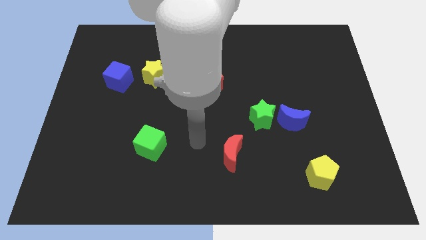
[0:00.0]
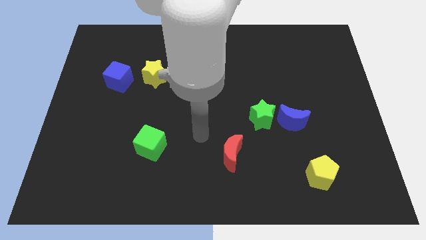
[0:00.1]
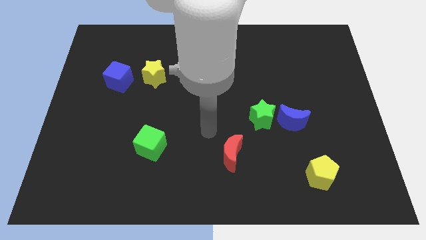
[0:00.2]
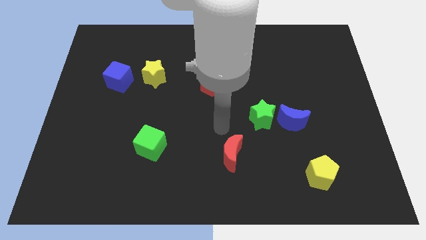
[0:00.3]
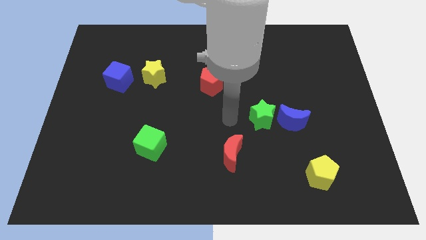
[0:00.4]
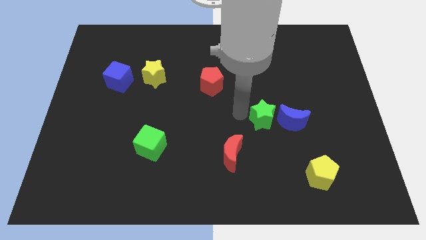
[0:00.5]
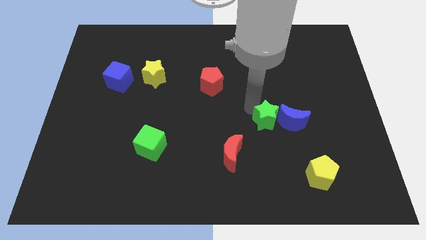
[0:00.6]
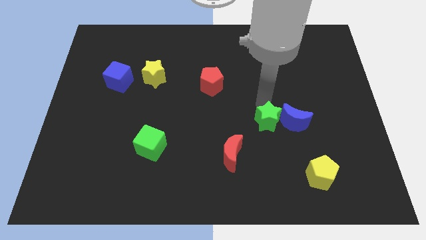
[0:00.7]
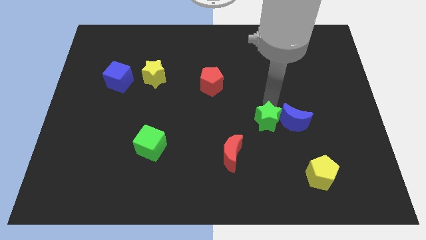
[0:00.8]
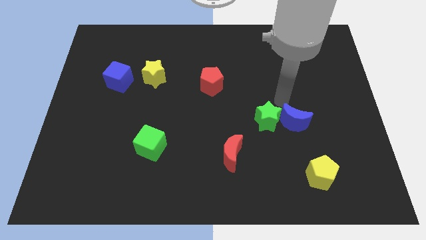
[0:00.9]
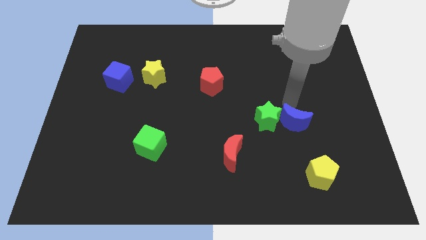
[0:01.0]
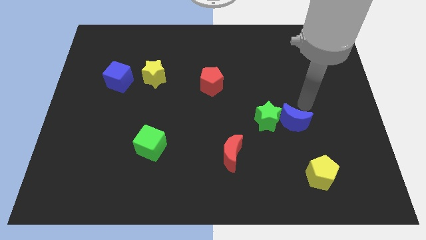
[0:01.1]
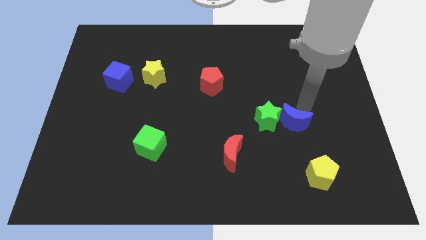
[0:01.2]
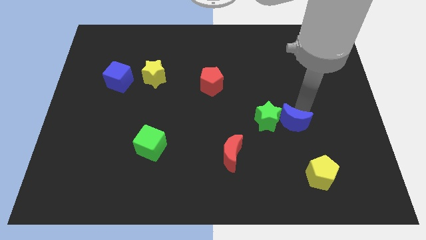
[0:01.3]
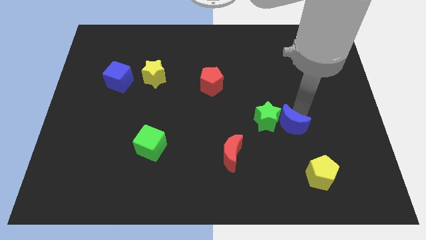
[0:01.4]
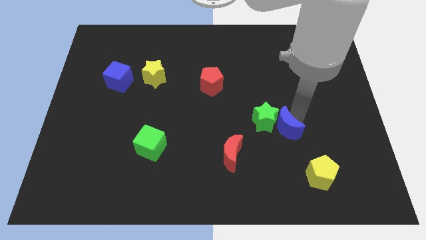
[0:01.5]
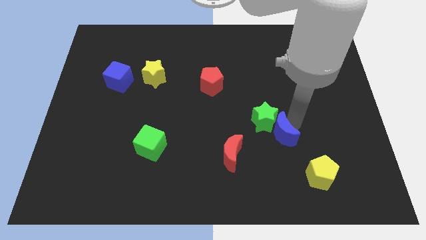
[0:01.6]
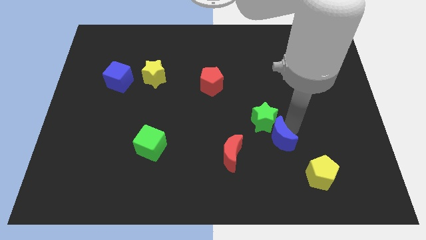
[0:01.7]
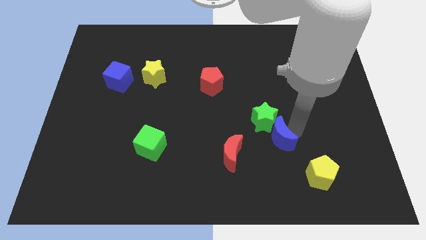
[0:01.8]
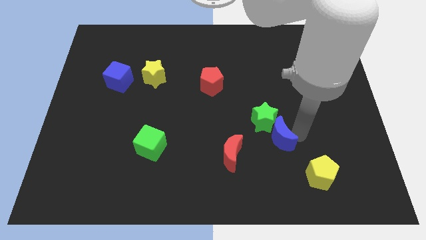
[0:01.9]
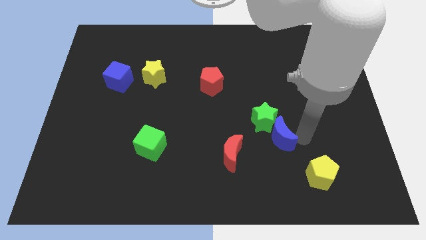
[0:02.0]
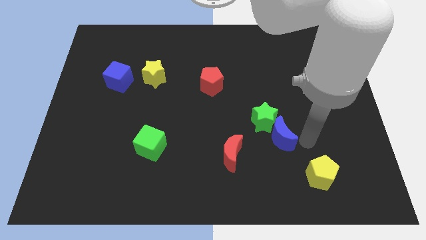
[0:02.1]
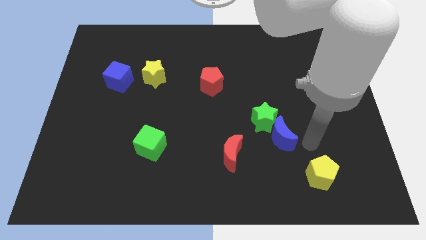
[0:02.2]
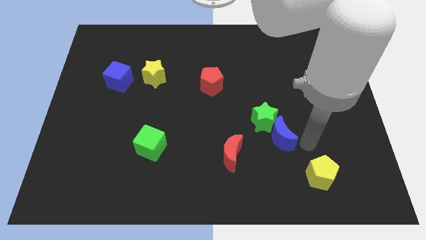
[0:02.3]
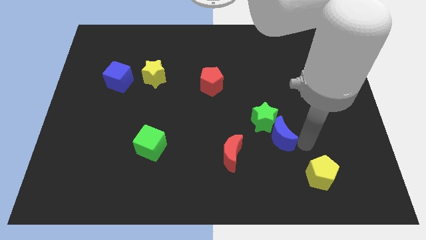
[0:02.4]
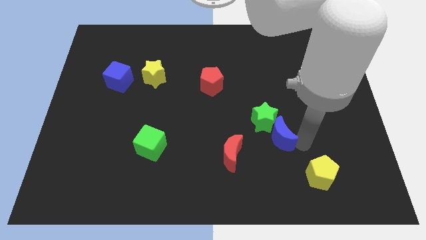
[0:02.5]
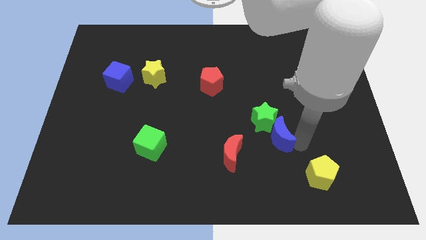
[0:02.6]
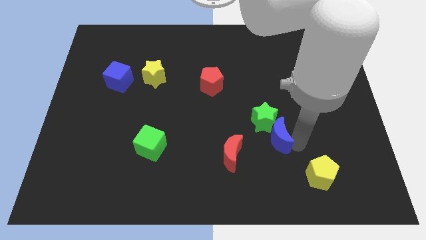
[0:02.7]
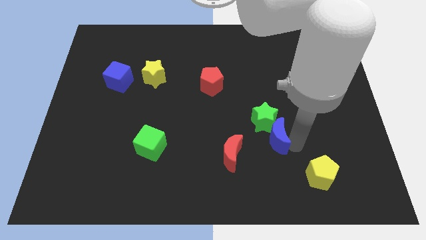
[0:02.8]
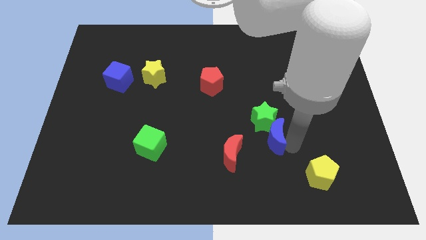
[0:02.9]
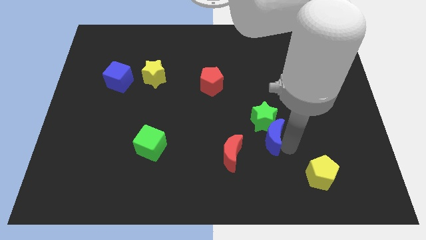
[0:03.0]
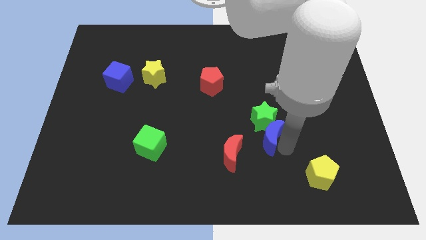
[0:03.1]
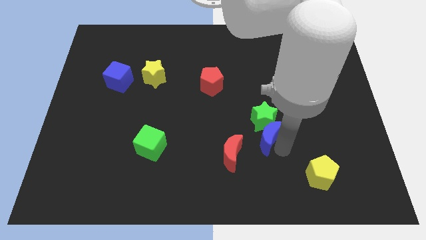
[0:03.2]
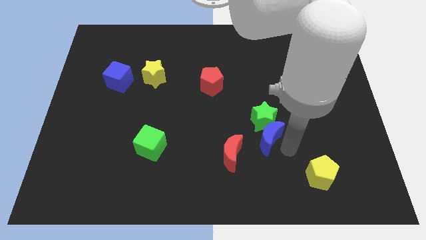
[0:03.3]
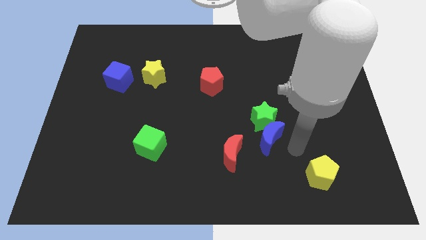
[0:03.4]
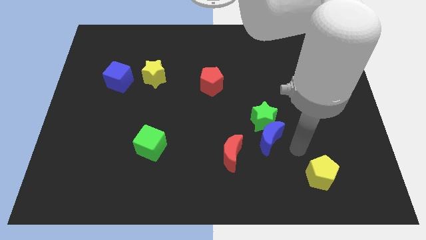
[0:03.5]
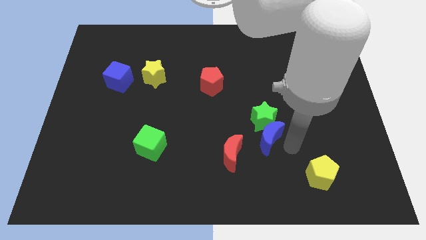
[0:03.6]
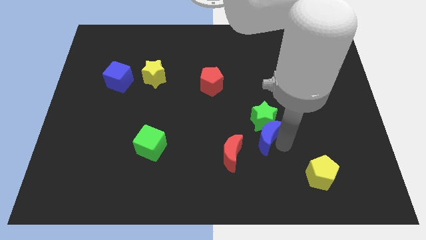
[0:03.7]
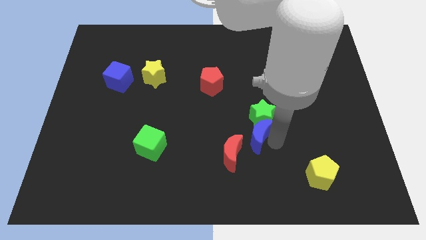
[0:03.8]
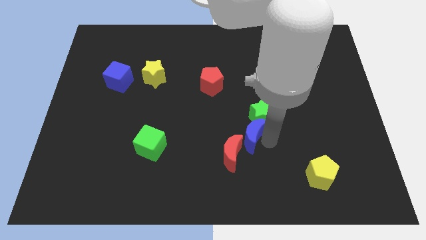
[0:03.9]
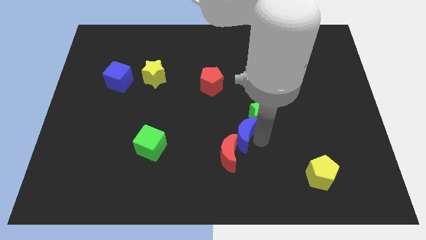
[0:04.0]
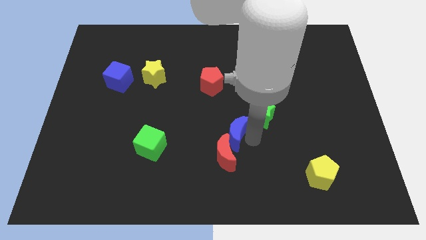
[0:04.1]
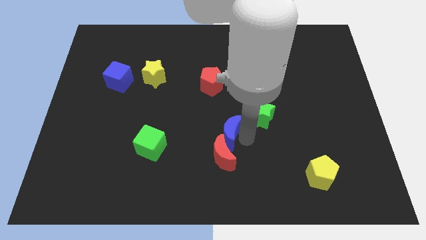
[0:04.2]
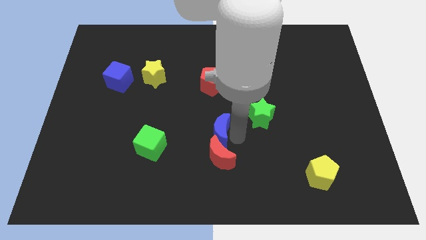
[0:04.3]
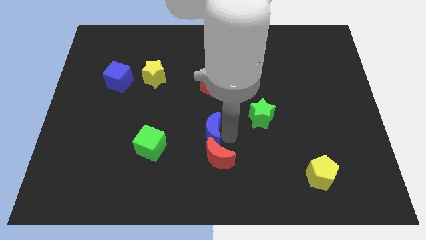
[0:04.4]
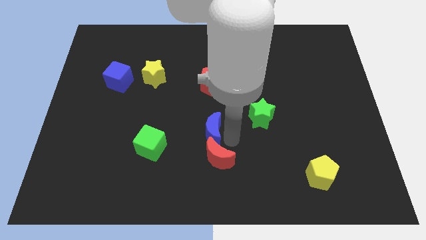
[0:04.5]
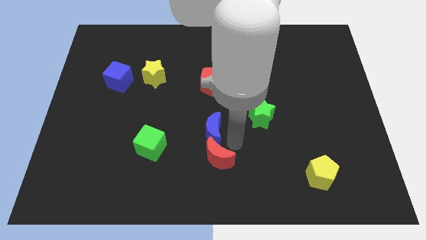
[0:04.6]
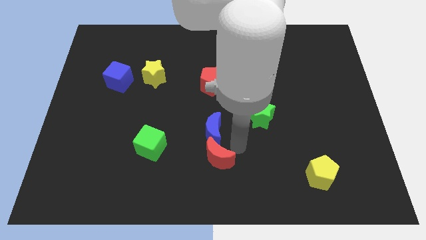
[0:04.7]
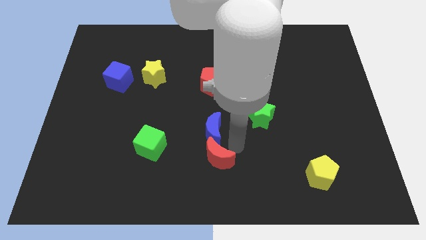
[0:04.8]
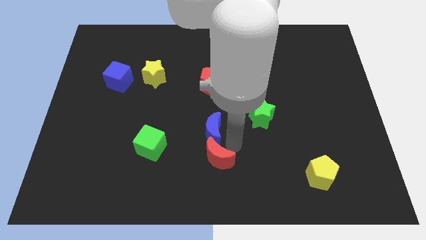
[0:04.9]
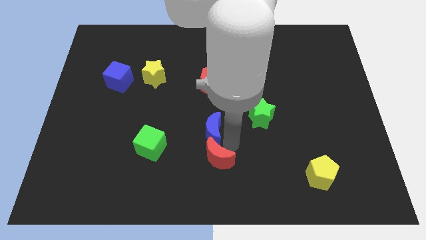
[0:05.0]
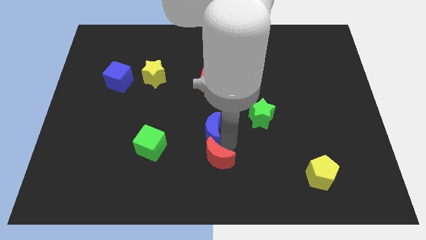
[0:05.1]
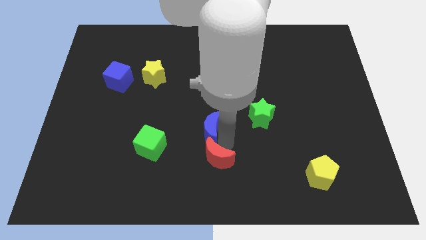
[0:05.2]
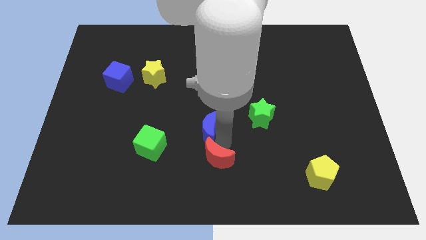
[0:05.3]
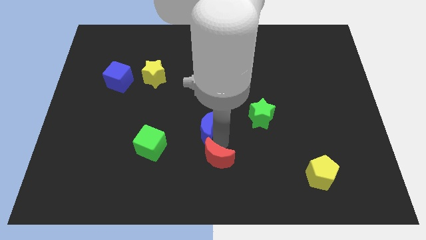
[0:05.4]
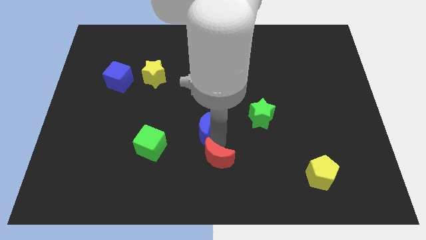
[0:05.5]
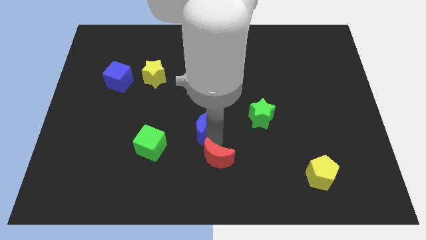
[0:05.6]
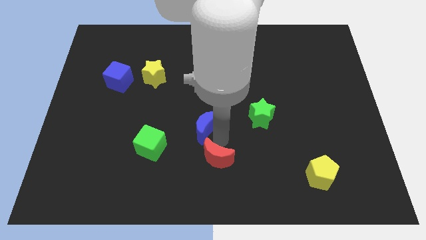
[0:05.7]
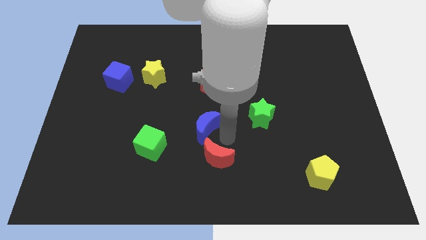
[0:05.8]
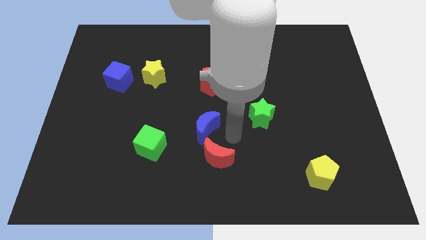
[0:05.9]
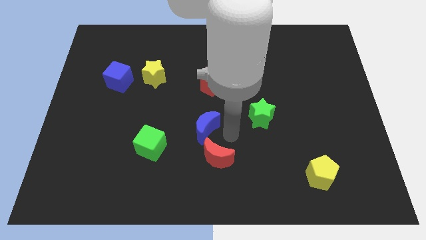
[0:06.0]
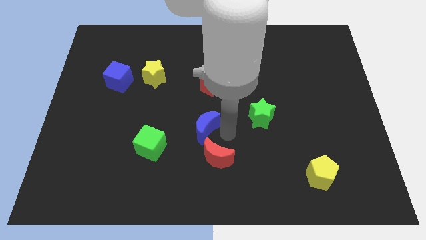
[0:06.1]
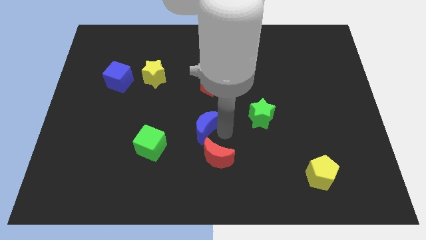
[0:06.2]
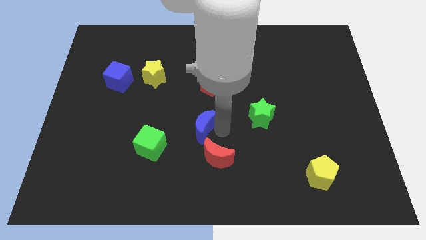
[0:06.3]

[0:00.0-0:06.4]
push the blue moon left

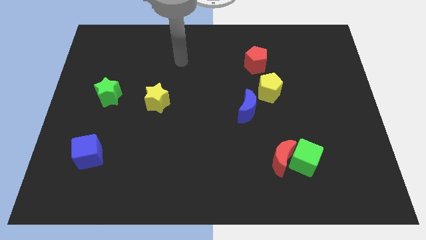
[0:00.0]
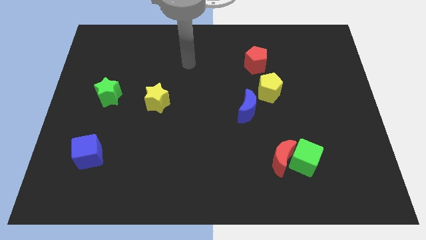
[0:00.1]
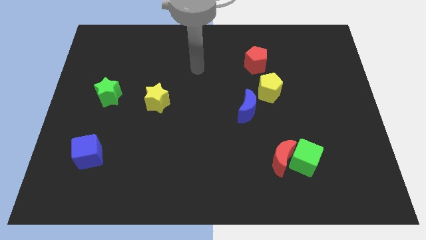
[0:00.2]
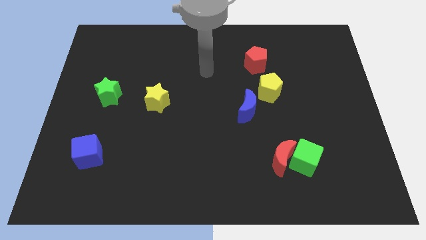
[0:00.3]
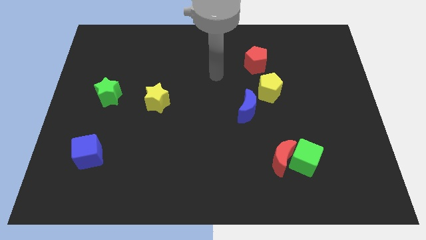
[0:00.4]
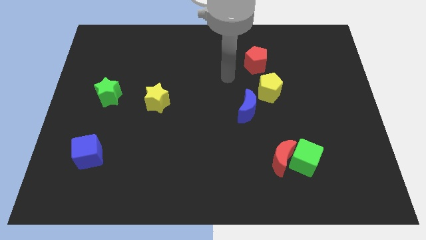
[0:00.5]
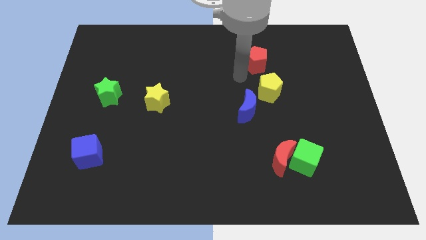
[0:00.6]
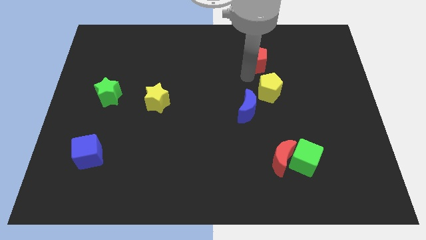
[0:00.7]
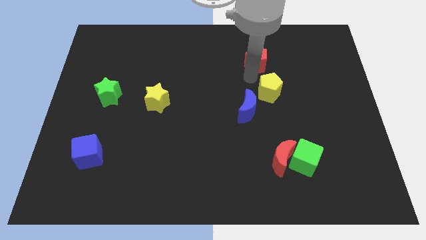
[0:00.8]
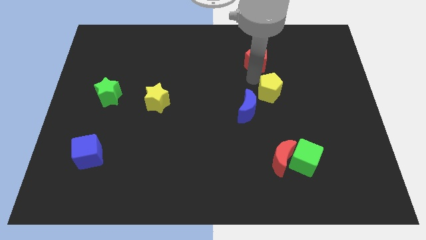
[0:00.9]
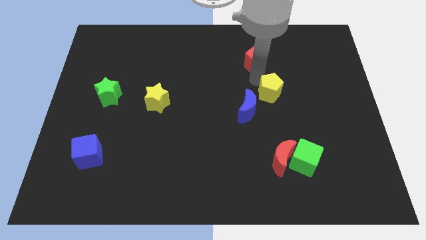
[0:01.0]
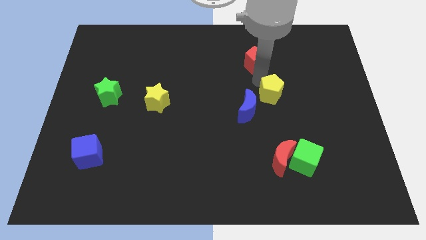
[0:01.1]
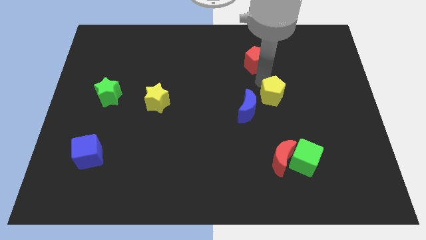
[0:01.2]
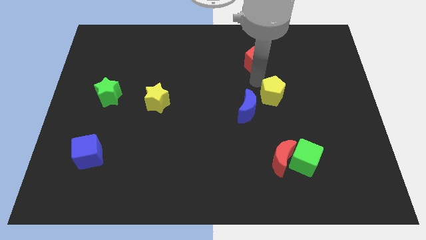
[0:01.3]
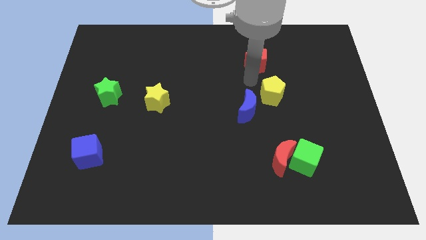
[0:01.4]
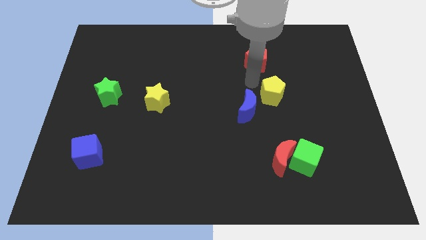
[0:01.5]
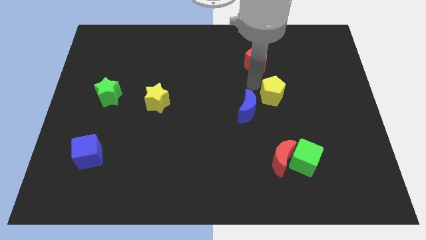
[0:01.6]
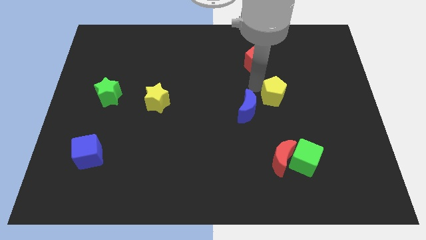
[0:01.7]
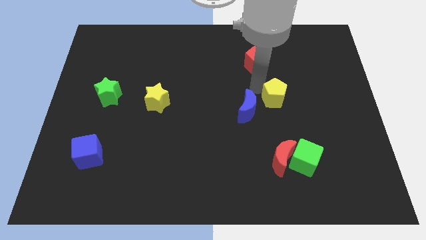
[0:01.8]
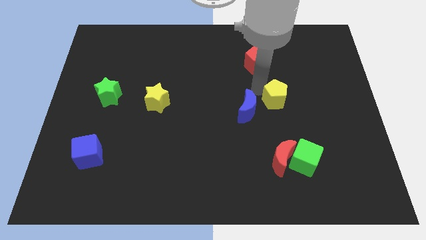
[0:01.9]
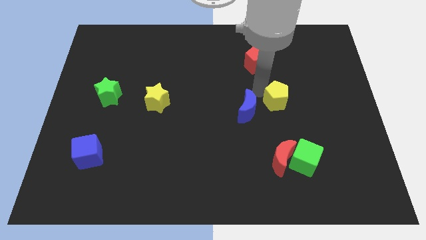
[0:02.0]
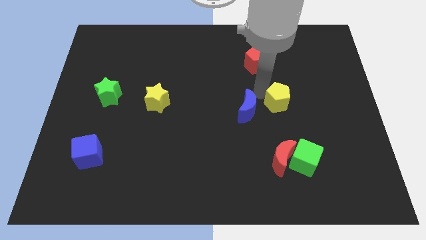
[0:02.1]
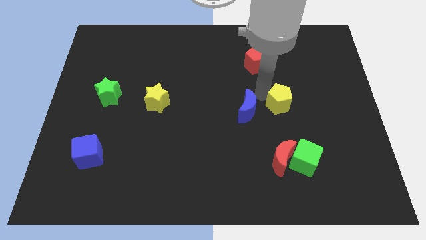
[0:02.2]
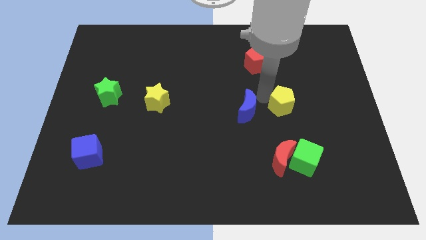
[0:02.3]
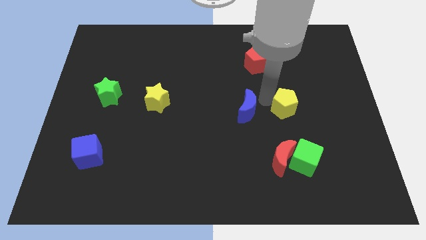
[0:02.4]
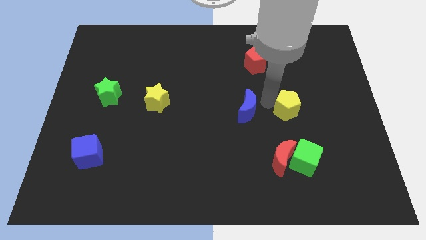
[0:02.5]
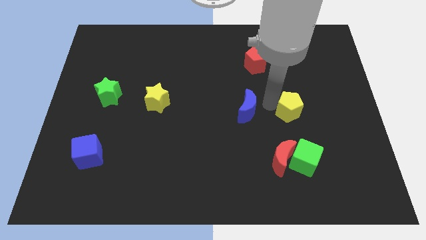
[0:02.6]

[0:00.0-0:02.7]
slide the yellow pentagon down and right diagonally a little
